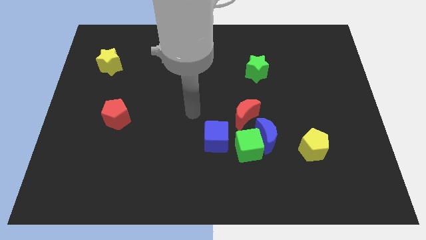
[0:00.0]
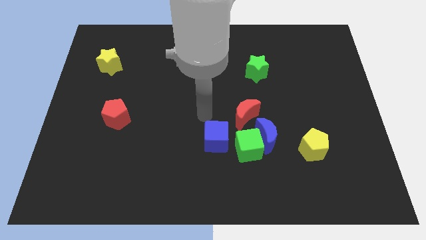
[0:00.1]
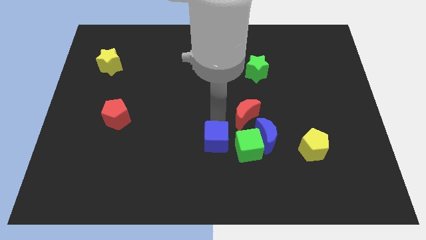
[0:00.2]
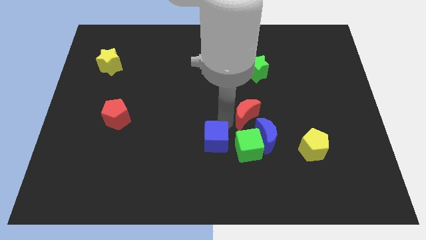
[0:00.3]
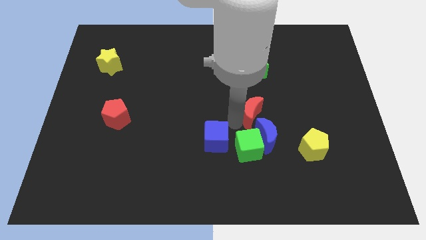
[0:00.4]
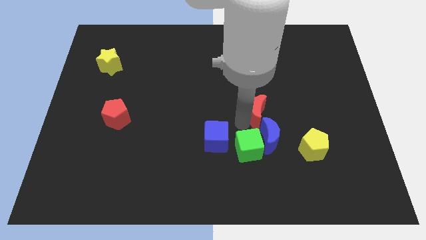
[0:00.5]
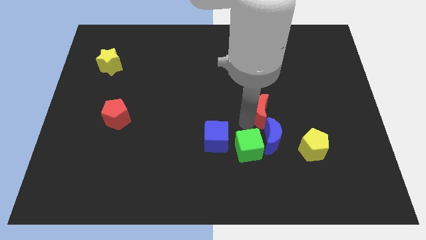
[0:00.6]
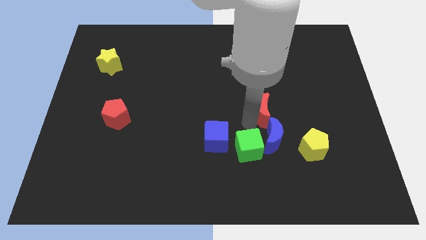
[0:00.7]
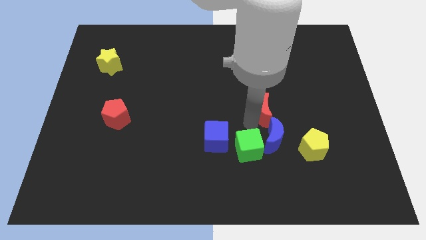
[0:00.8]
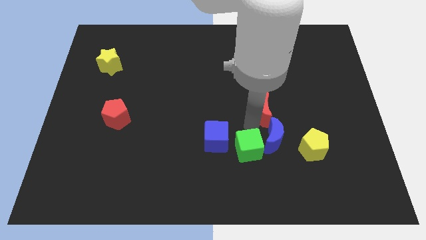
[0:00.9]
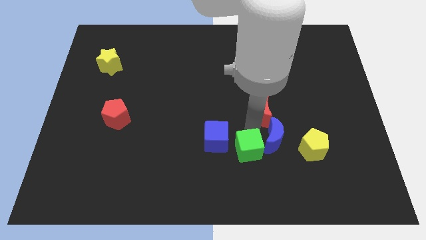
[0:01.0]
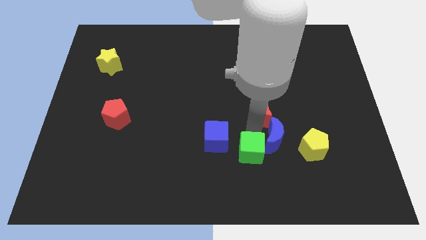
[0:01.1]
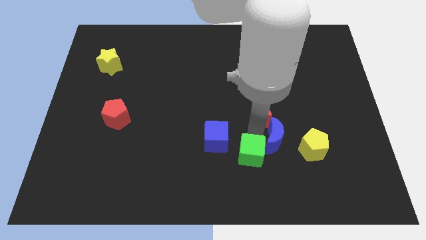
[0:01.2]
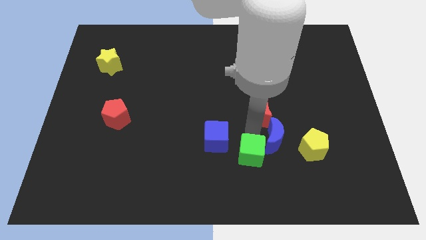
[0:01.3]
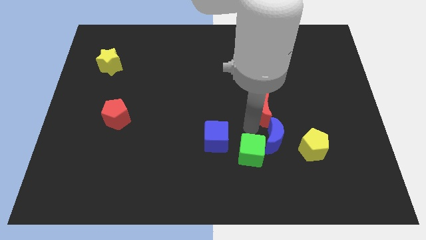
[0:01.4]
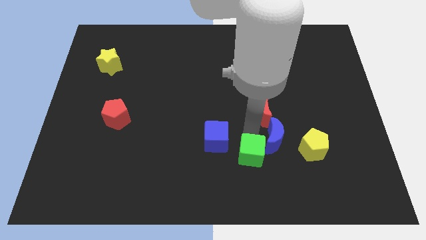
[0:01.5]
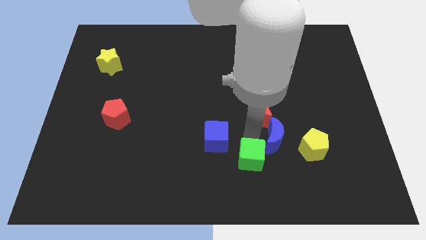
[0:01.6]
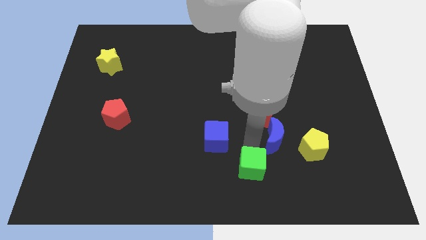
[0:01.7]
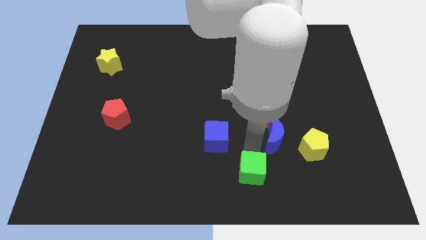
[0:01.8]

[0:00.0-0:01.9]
move the green cube away from the group of blocks

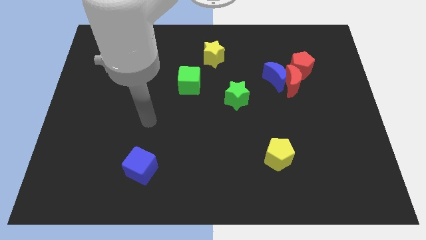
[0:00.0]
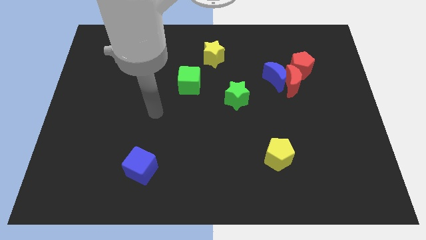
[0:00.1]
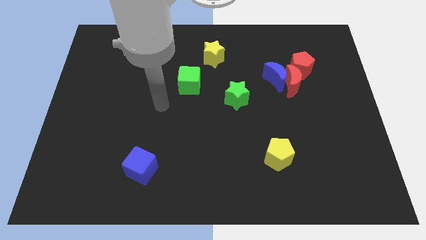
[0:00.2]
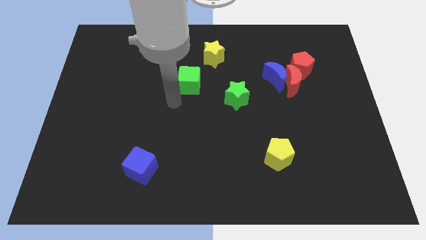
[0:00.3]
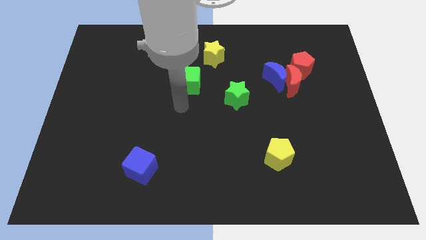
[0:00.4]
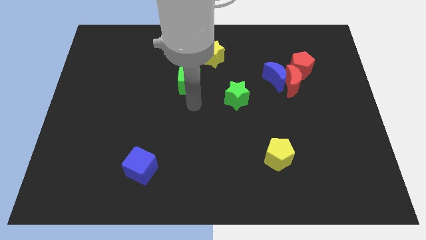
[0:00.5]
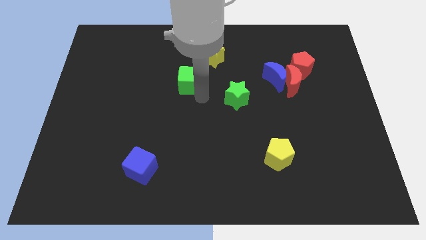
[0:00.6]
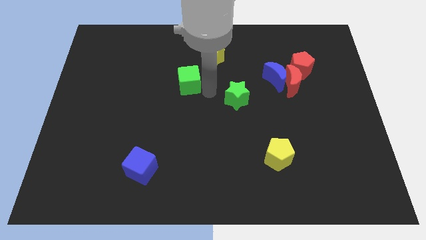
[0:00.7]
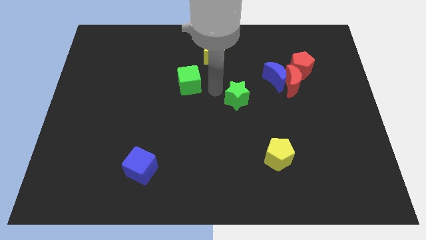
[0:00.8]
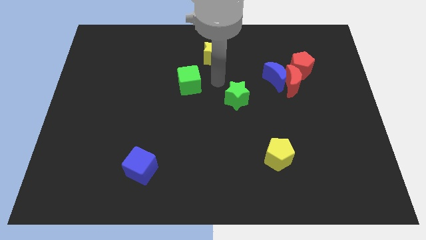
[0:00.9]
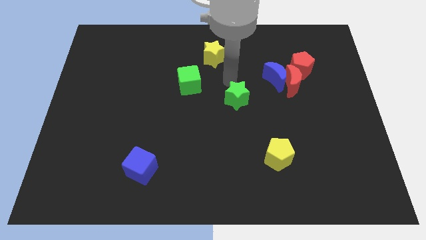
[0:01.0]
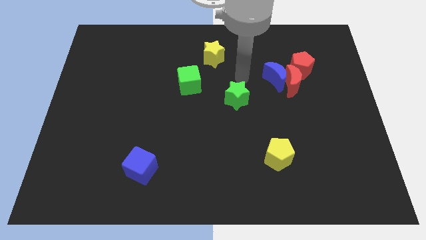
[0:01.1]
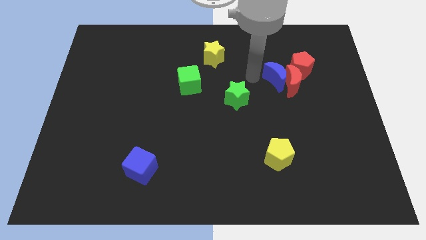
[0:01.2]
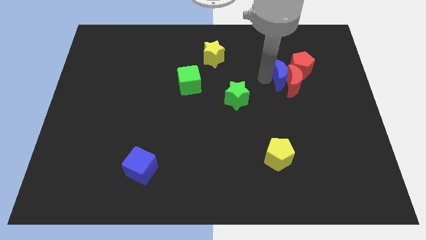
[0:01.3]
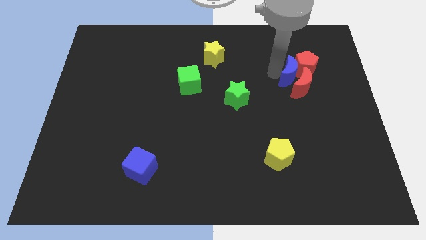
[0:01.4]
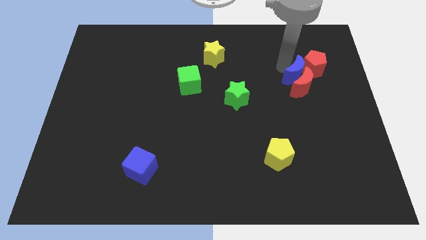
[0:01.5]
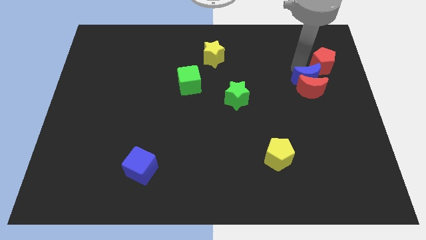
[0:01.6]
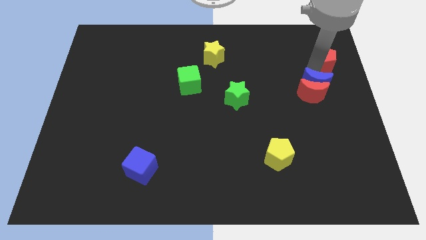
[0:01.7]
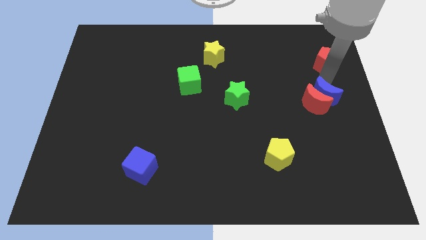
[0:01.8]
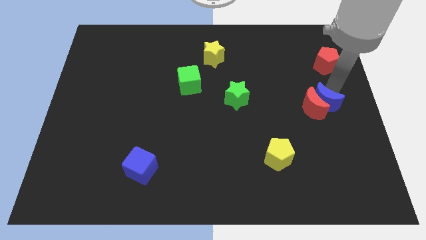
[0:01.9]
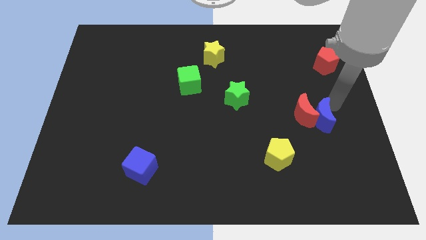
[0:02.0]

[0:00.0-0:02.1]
move the red moon away from the blue moon and red pentagon

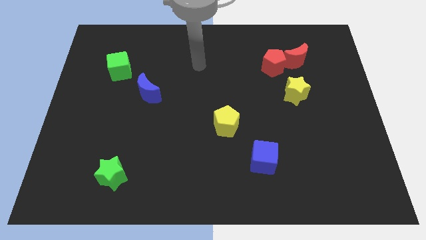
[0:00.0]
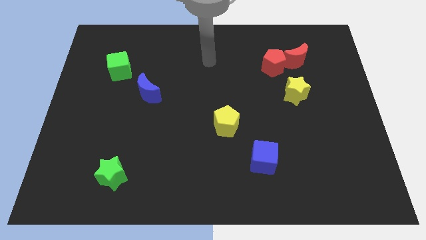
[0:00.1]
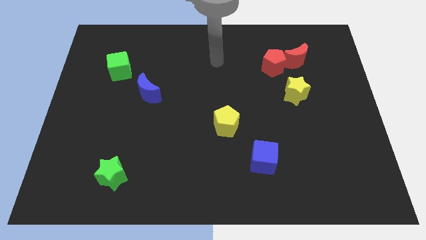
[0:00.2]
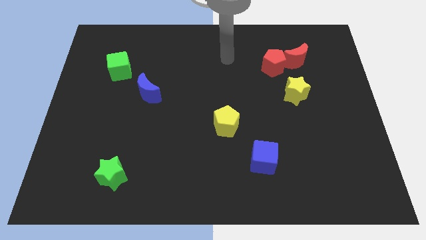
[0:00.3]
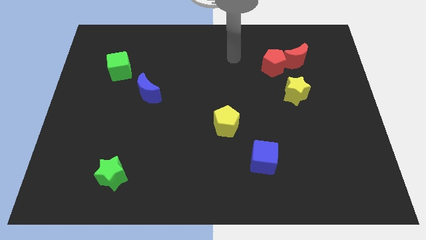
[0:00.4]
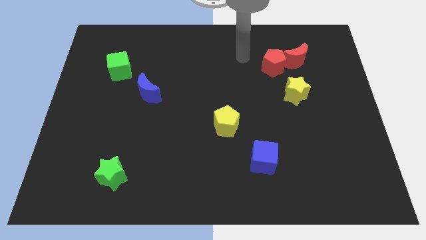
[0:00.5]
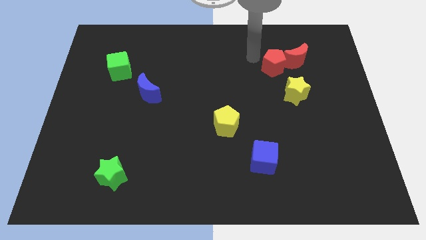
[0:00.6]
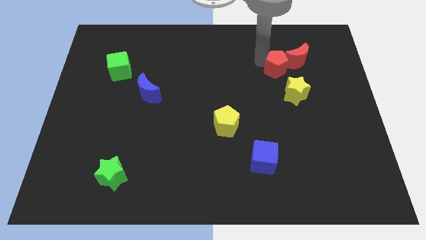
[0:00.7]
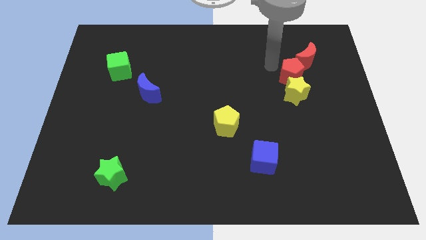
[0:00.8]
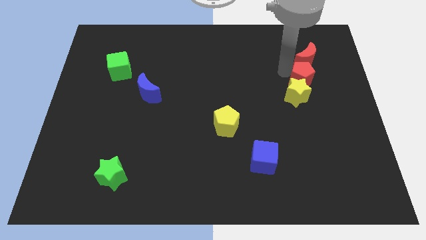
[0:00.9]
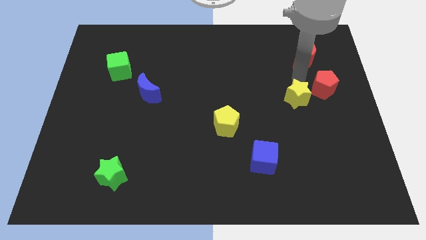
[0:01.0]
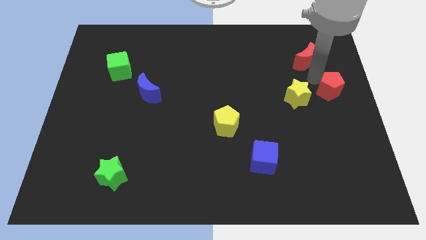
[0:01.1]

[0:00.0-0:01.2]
pull the red moon apart from the red pentagon

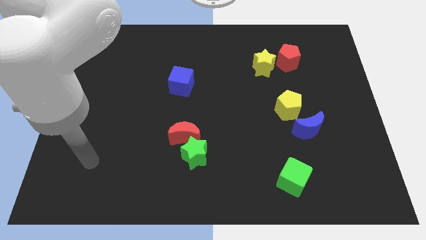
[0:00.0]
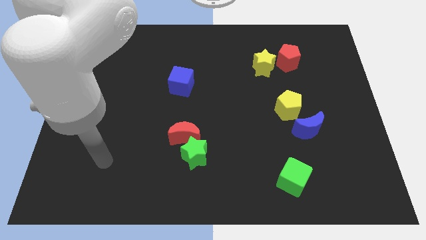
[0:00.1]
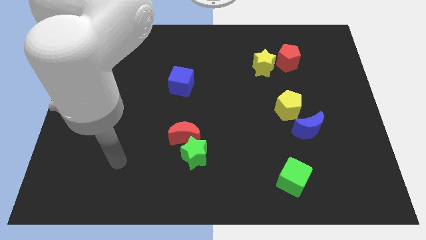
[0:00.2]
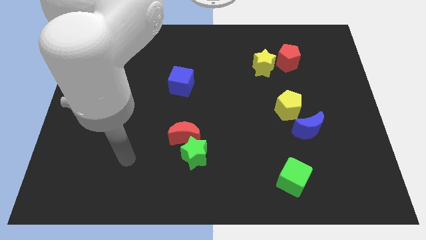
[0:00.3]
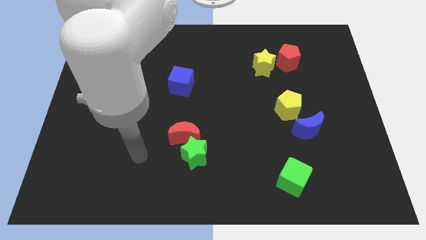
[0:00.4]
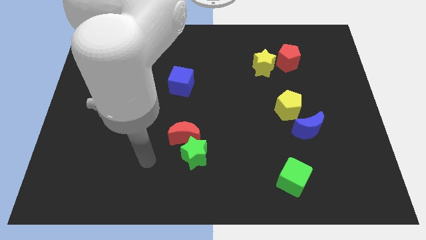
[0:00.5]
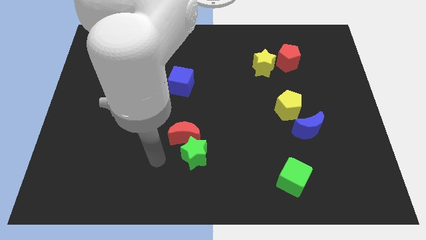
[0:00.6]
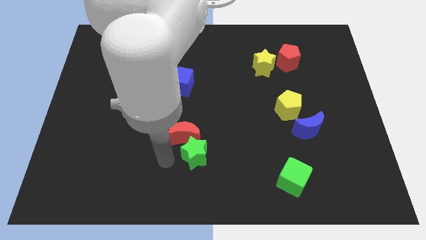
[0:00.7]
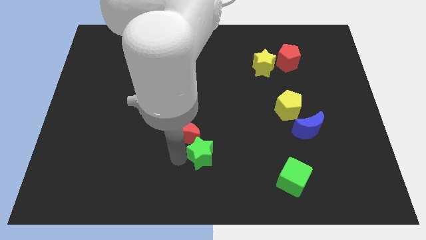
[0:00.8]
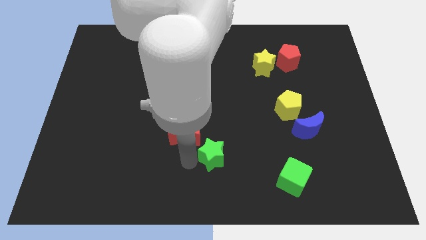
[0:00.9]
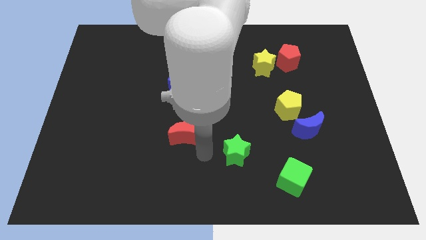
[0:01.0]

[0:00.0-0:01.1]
separate the red moon from the green star

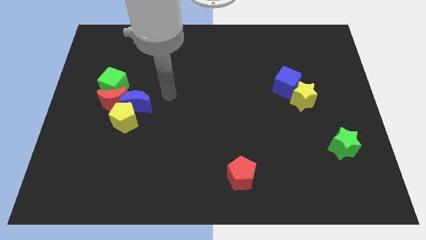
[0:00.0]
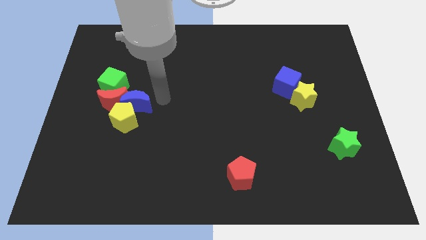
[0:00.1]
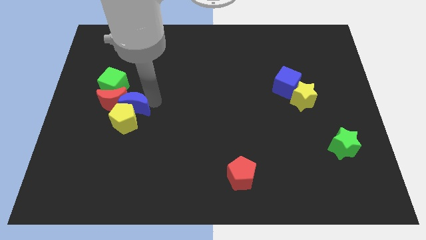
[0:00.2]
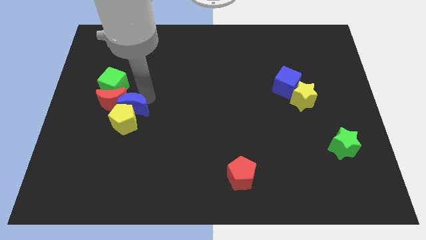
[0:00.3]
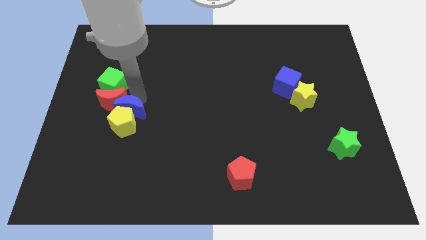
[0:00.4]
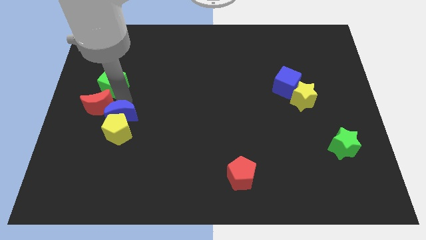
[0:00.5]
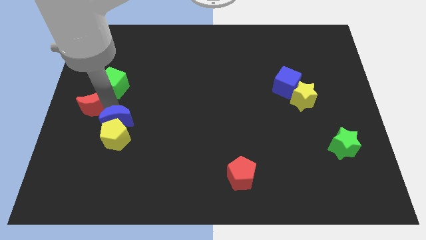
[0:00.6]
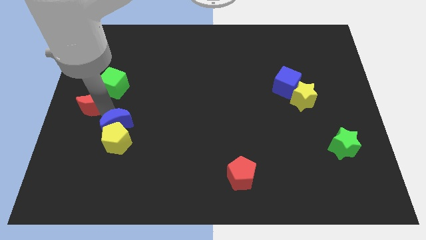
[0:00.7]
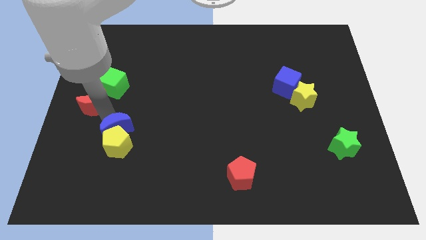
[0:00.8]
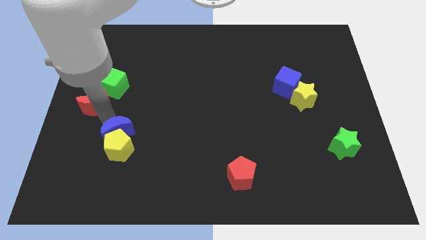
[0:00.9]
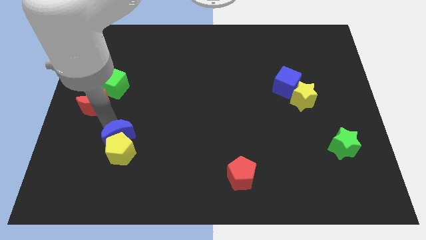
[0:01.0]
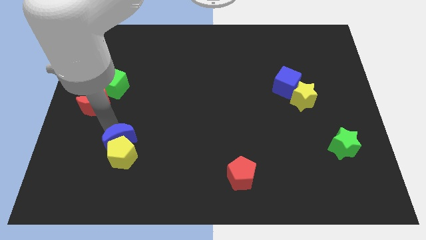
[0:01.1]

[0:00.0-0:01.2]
pull the yellow pentagon apart from the blue moon and red moon

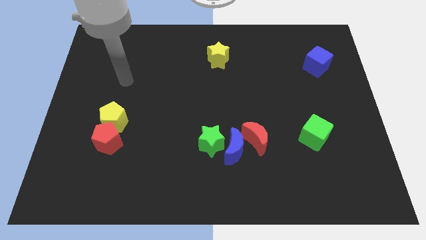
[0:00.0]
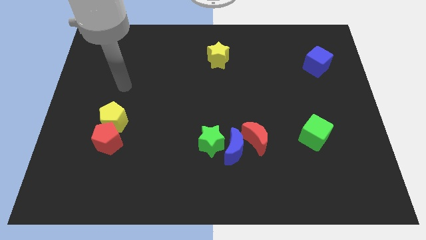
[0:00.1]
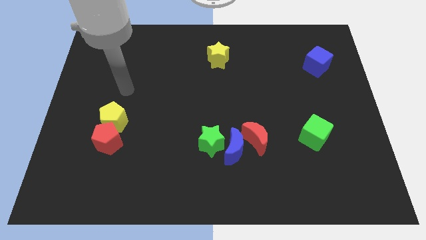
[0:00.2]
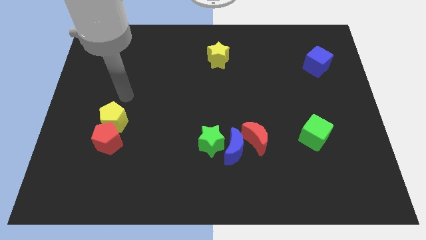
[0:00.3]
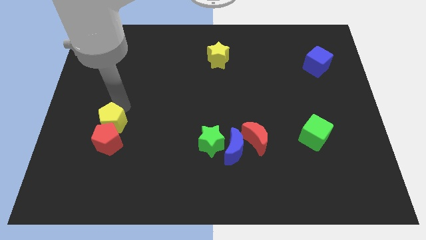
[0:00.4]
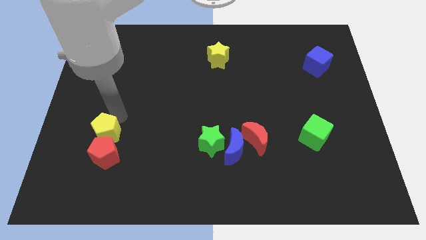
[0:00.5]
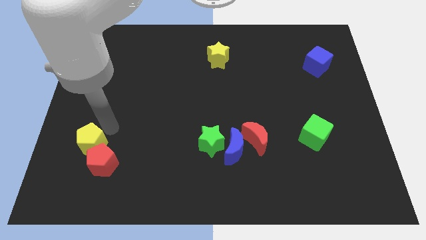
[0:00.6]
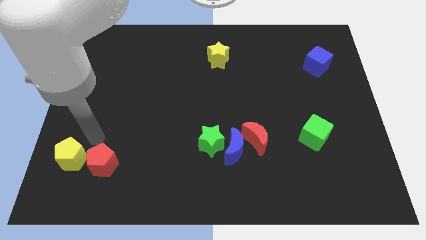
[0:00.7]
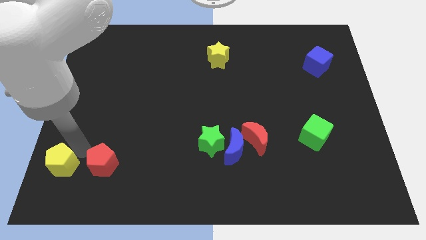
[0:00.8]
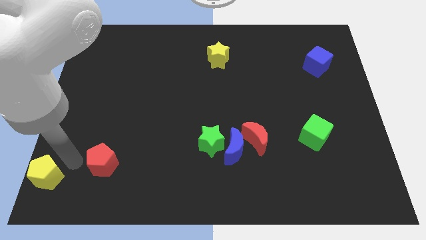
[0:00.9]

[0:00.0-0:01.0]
move the red pentagon away from the yellow pentagon

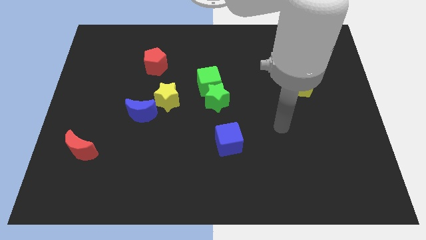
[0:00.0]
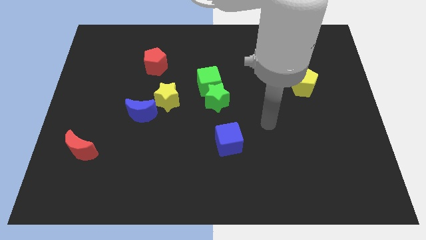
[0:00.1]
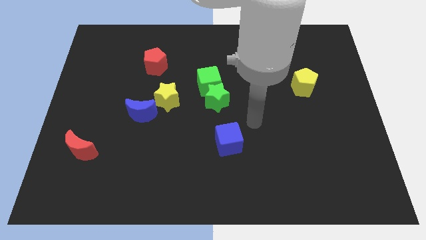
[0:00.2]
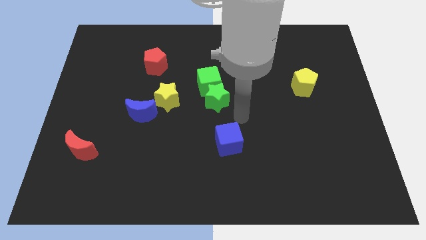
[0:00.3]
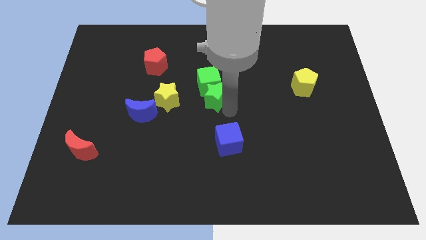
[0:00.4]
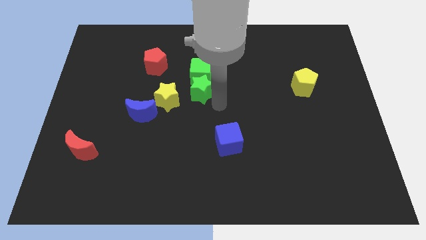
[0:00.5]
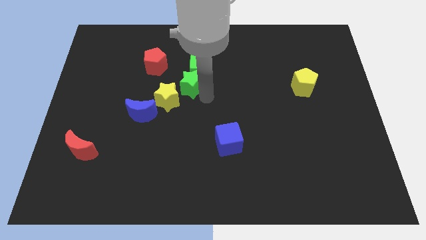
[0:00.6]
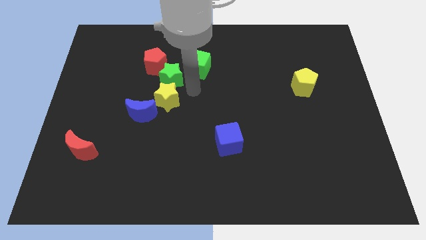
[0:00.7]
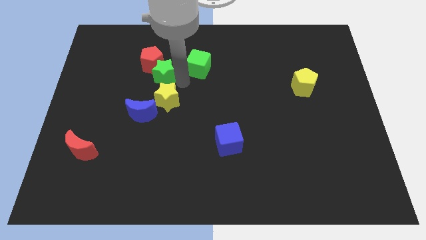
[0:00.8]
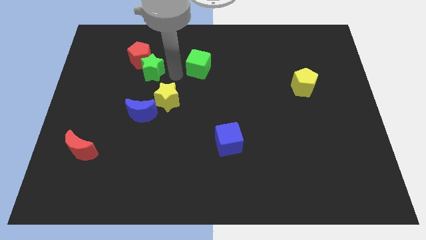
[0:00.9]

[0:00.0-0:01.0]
move the green cube away from the green star
